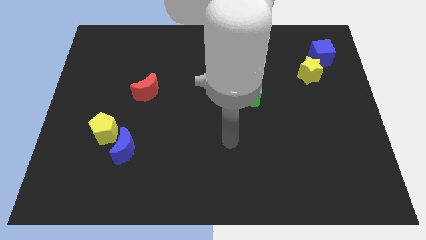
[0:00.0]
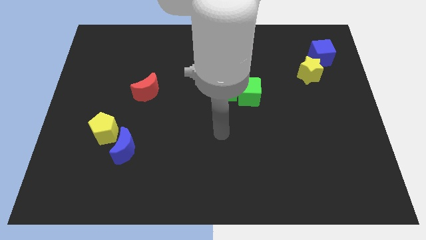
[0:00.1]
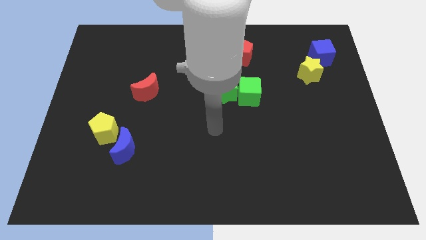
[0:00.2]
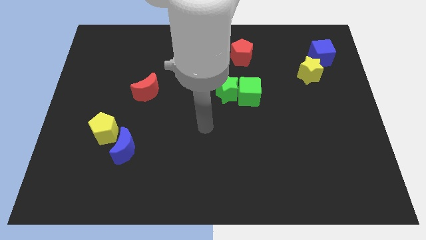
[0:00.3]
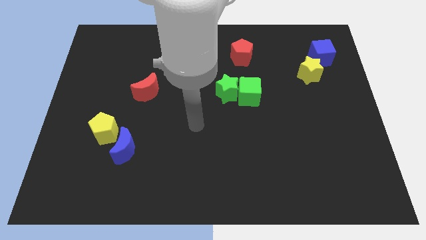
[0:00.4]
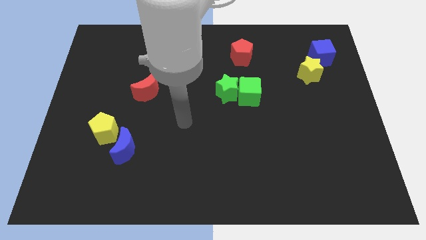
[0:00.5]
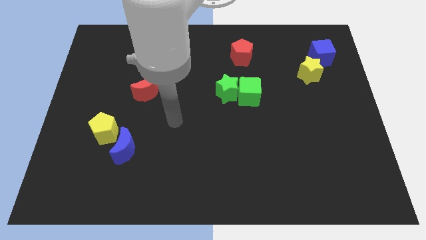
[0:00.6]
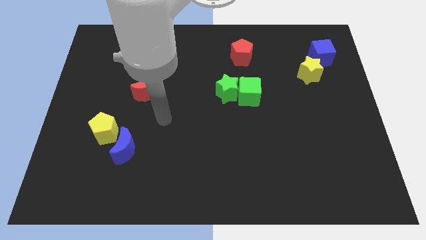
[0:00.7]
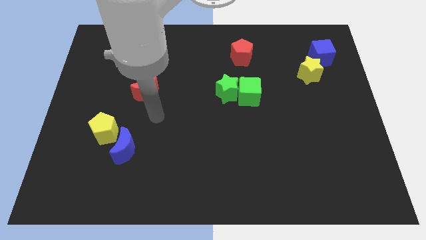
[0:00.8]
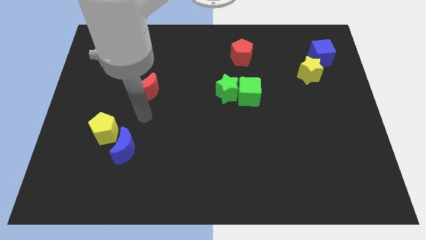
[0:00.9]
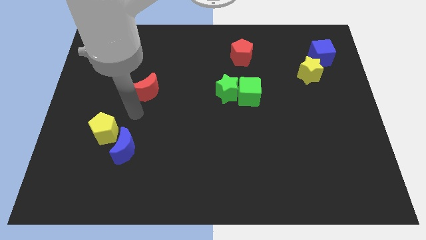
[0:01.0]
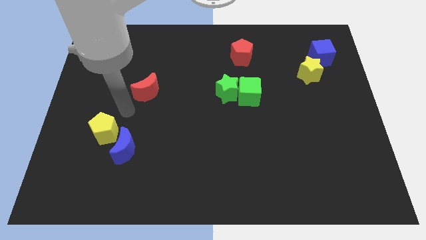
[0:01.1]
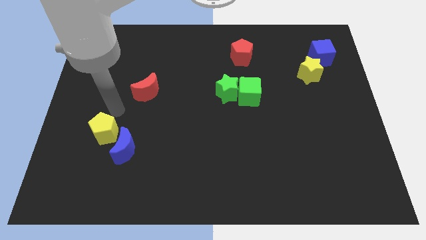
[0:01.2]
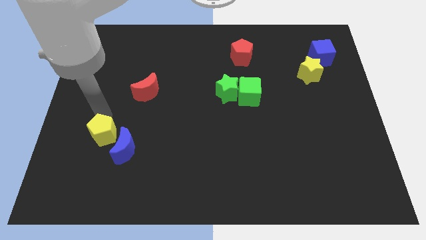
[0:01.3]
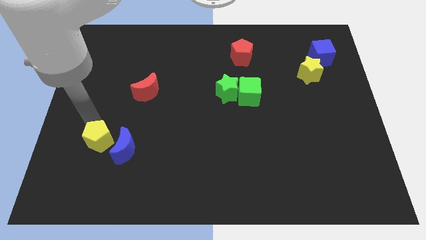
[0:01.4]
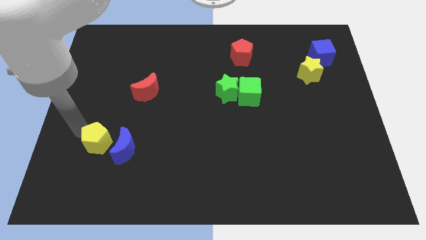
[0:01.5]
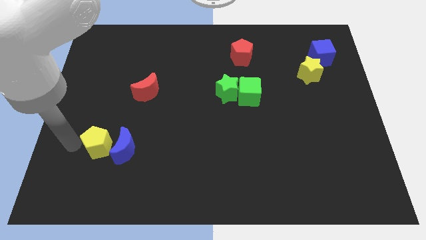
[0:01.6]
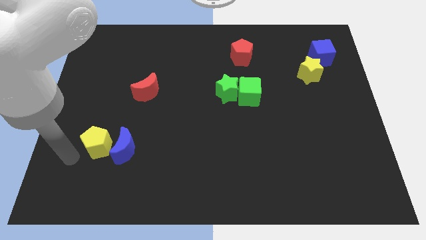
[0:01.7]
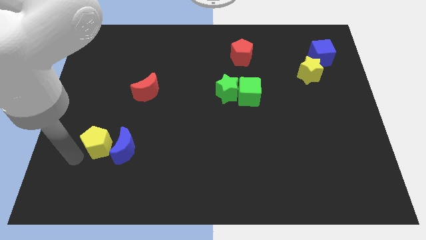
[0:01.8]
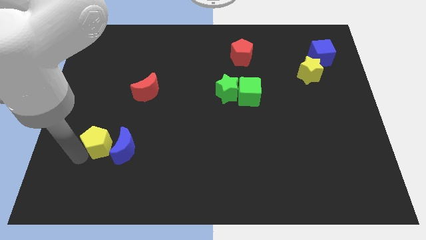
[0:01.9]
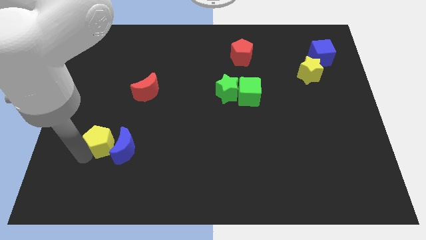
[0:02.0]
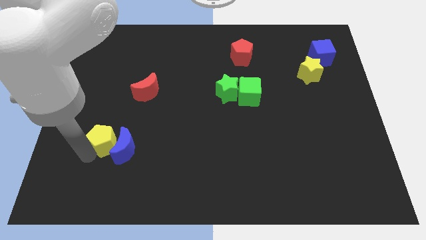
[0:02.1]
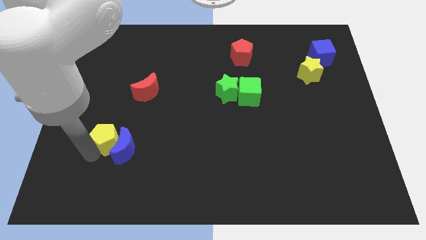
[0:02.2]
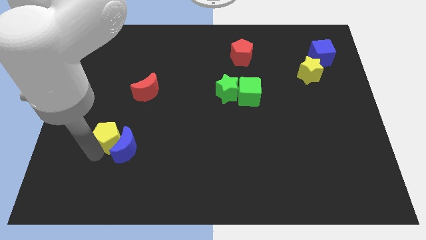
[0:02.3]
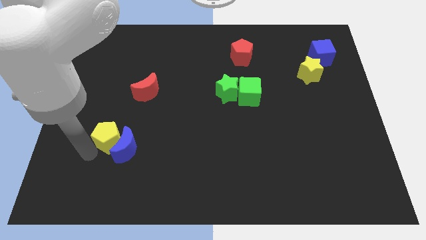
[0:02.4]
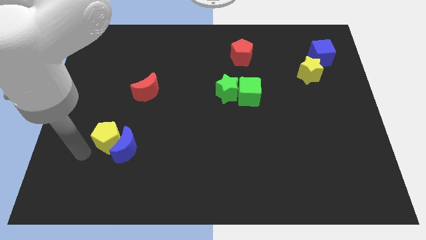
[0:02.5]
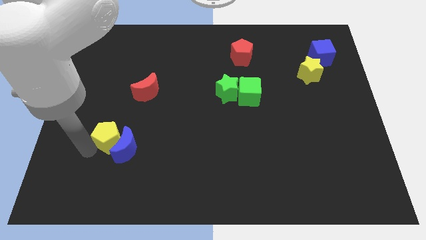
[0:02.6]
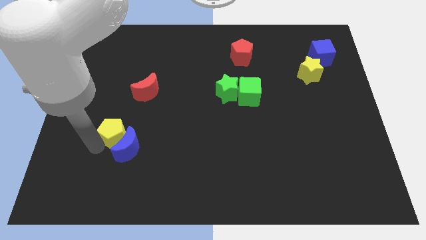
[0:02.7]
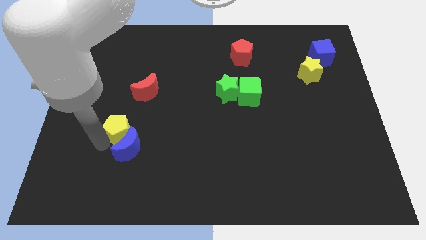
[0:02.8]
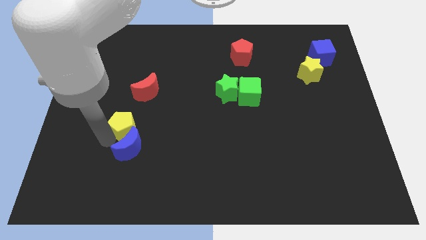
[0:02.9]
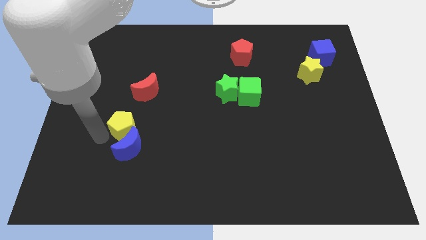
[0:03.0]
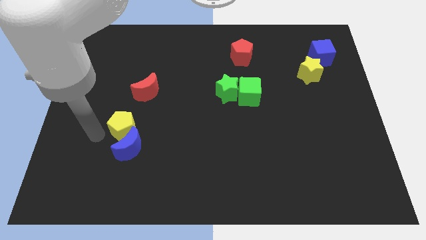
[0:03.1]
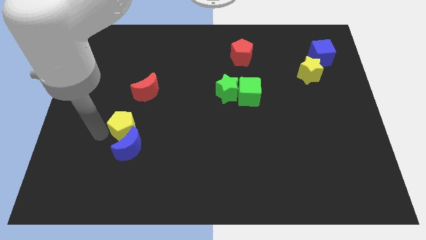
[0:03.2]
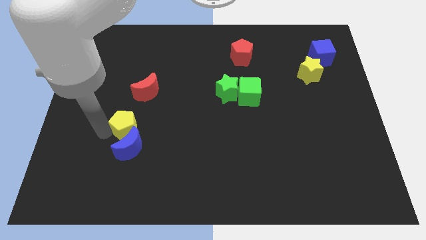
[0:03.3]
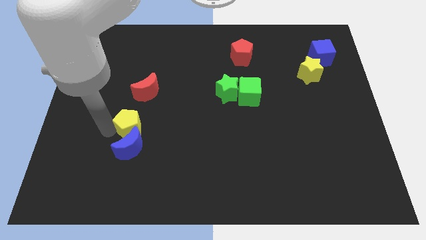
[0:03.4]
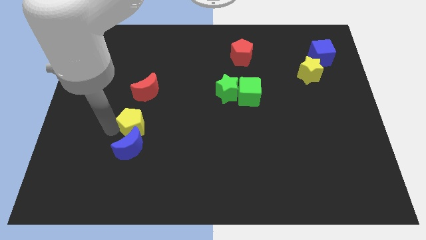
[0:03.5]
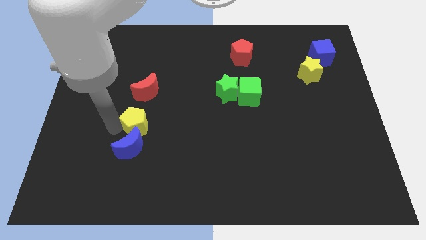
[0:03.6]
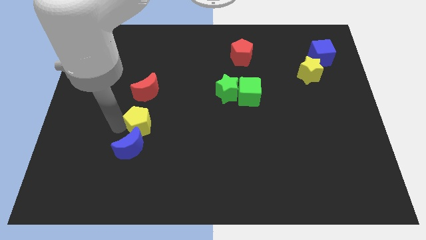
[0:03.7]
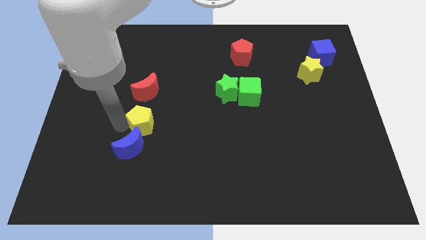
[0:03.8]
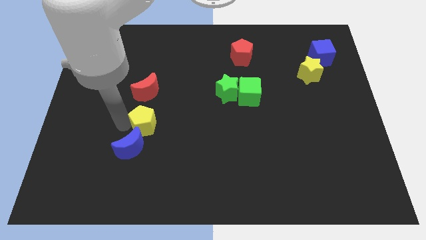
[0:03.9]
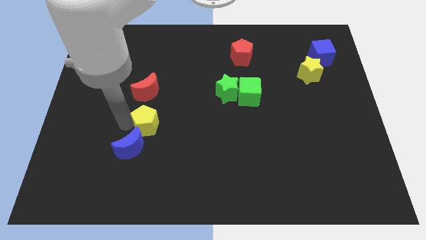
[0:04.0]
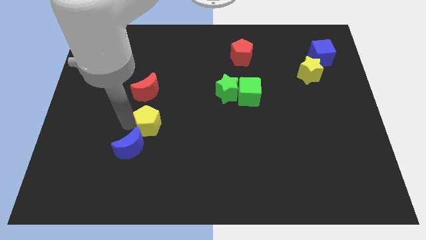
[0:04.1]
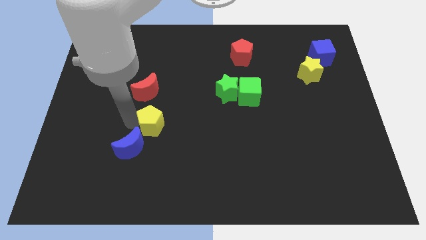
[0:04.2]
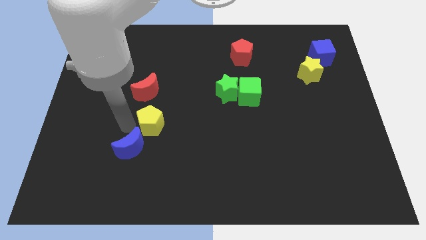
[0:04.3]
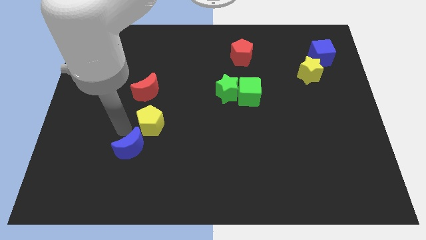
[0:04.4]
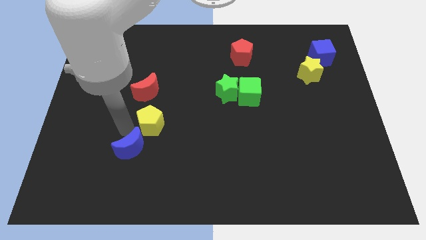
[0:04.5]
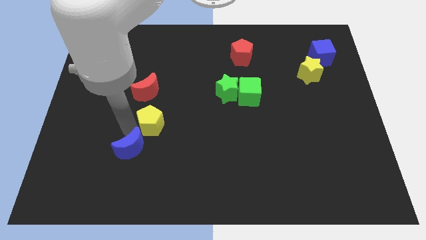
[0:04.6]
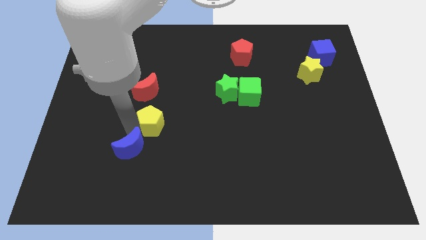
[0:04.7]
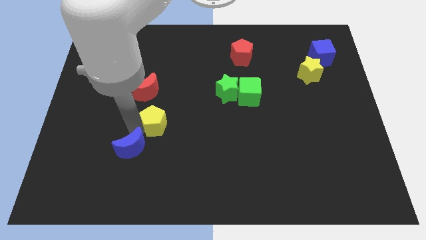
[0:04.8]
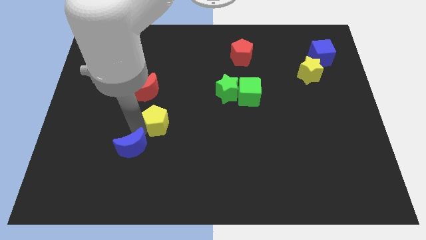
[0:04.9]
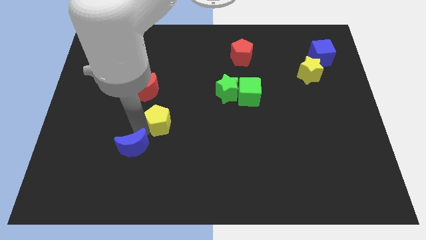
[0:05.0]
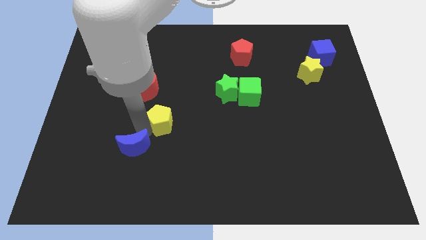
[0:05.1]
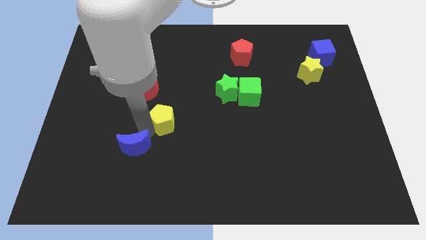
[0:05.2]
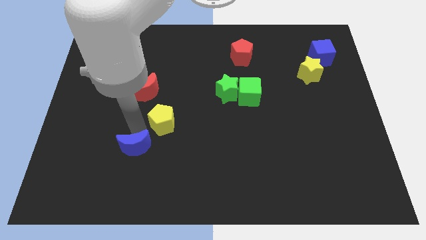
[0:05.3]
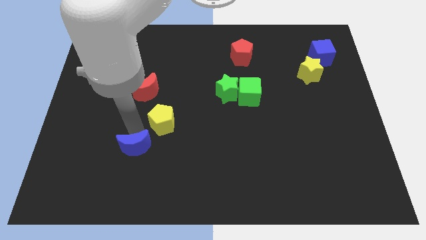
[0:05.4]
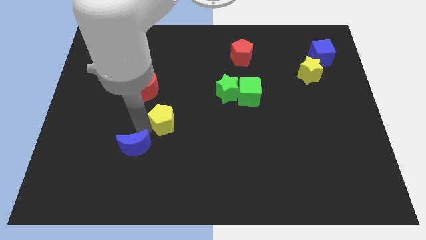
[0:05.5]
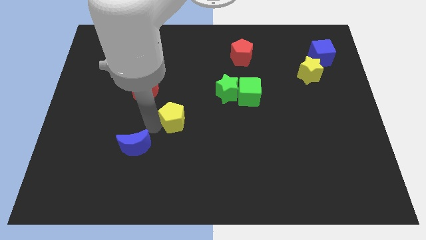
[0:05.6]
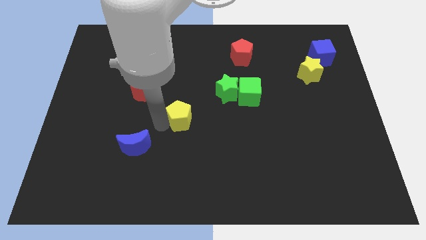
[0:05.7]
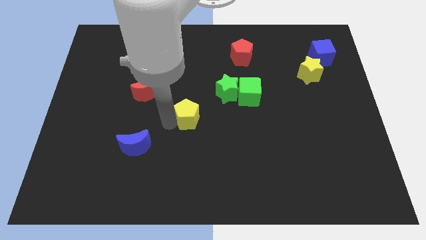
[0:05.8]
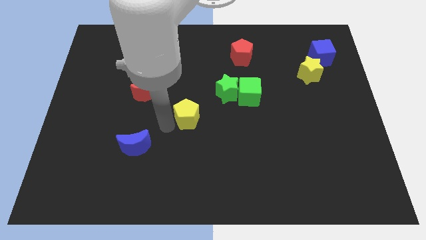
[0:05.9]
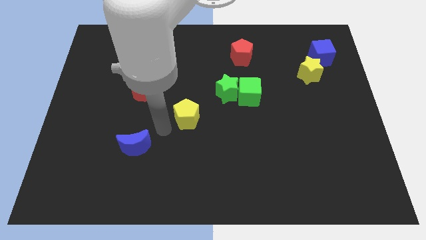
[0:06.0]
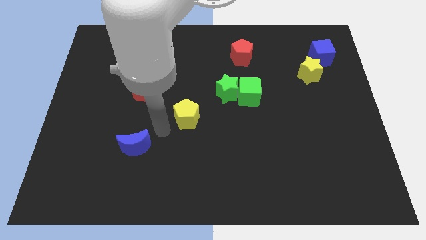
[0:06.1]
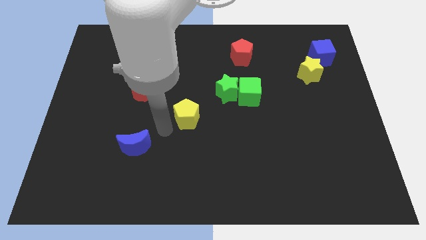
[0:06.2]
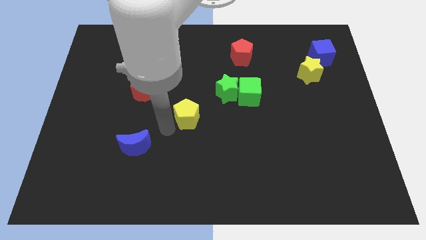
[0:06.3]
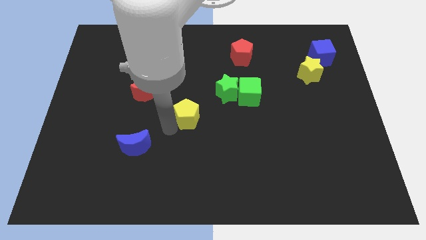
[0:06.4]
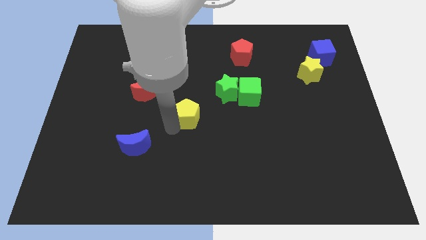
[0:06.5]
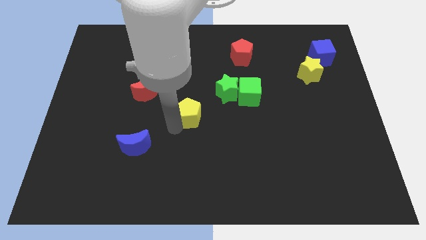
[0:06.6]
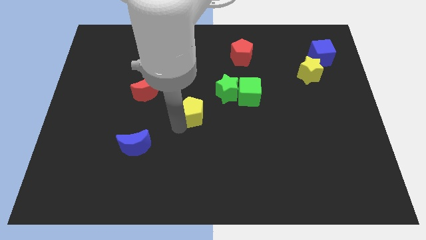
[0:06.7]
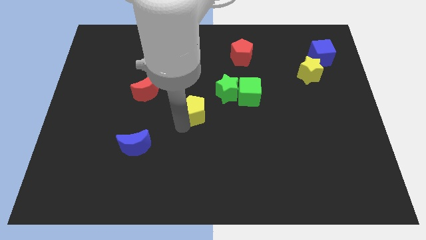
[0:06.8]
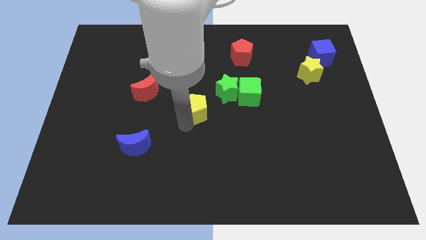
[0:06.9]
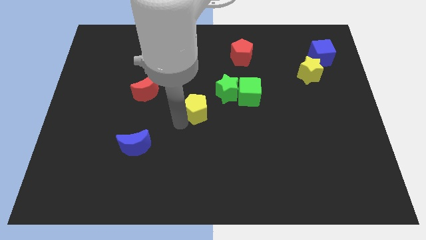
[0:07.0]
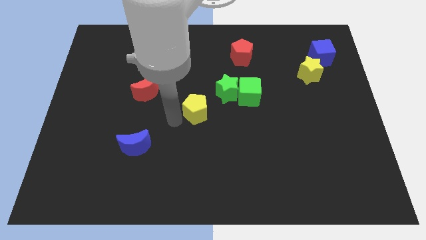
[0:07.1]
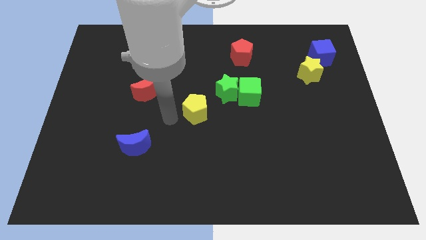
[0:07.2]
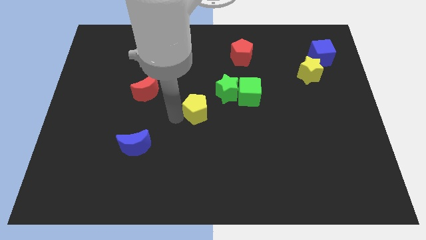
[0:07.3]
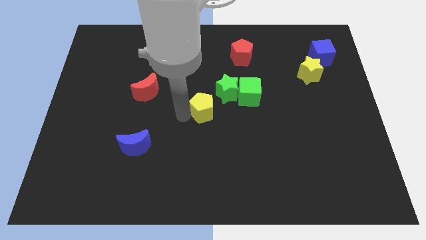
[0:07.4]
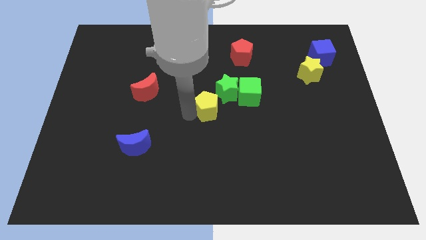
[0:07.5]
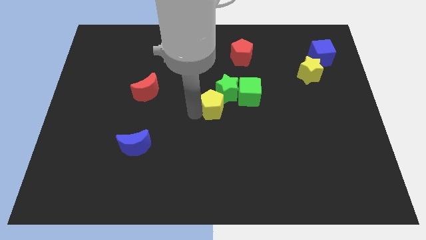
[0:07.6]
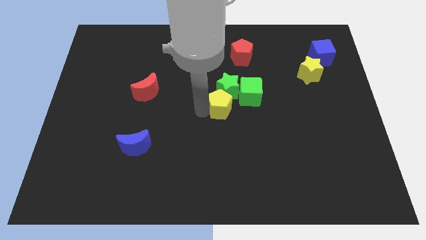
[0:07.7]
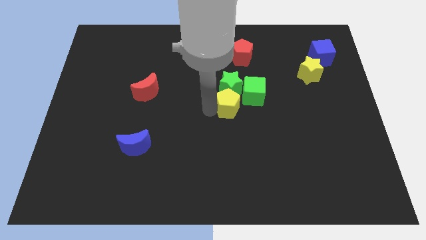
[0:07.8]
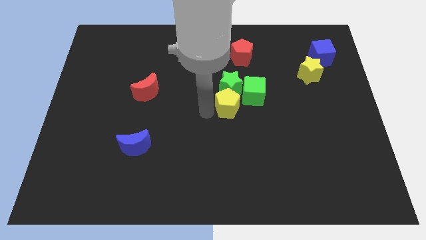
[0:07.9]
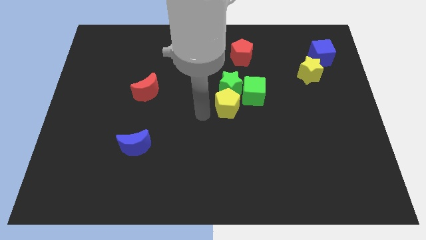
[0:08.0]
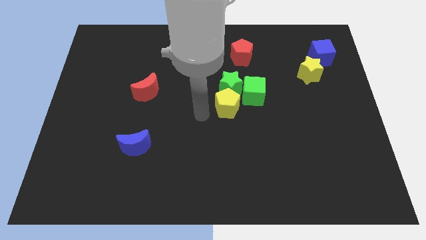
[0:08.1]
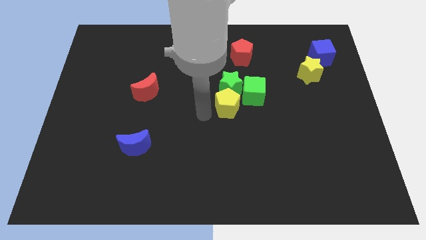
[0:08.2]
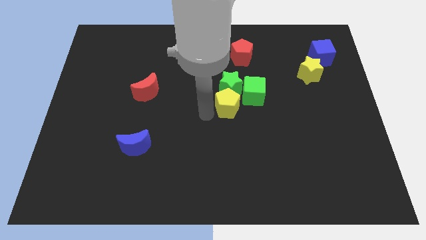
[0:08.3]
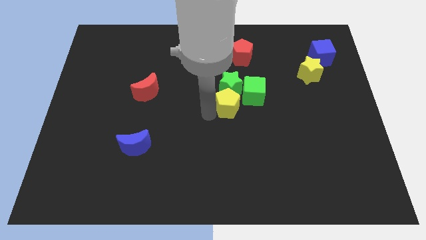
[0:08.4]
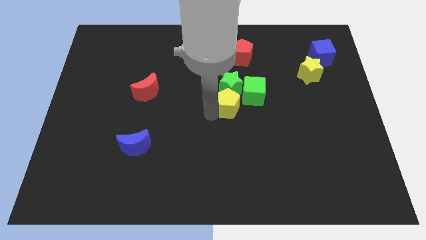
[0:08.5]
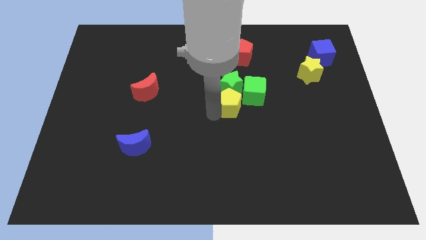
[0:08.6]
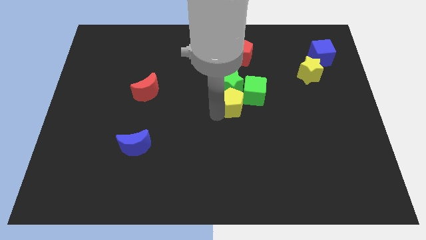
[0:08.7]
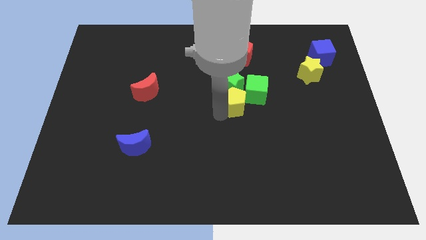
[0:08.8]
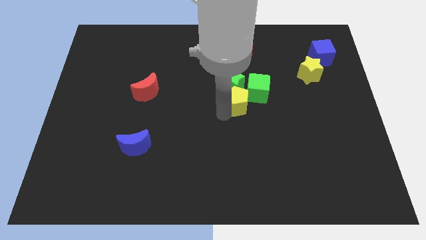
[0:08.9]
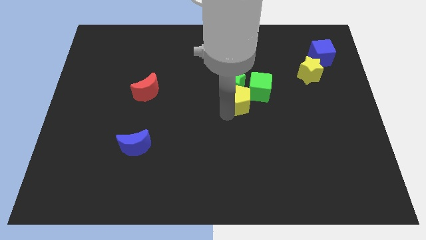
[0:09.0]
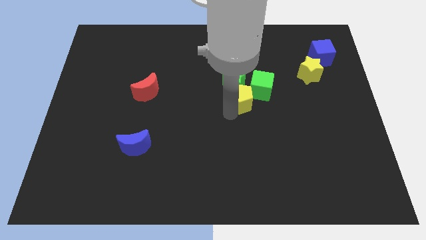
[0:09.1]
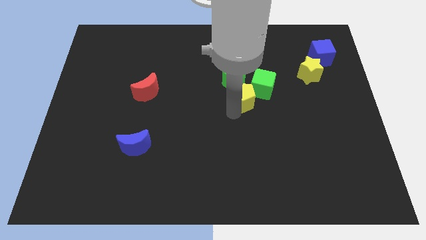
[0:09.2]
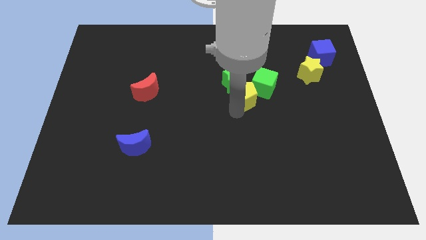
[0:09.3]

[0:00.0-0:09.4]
push the yellow pentagon towards the green cube
